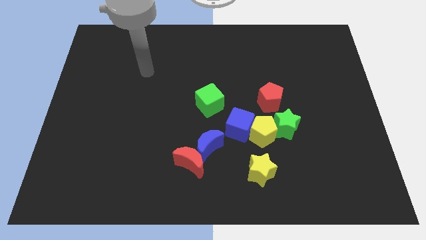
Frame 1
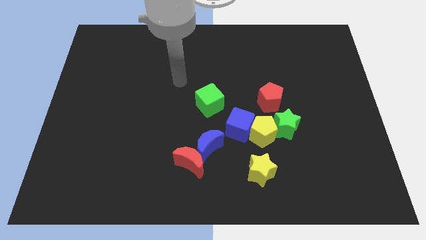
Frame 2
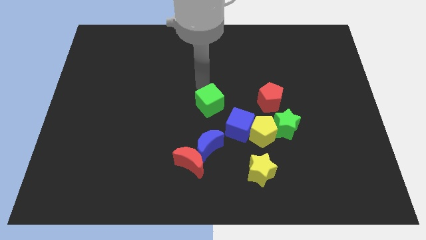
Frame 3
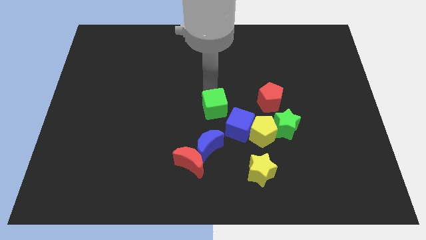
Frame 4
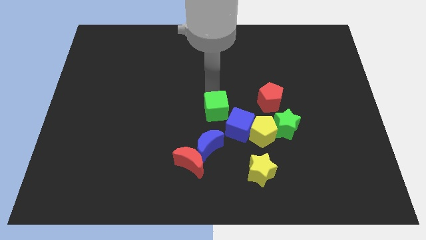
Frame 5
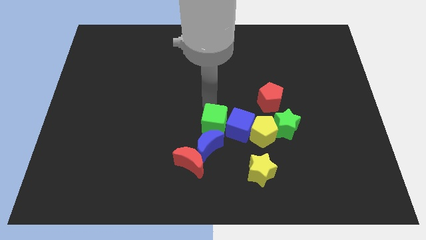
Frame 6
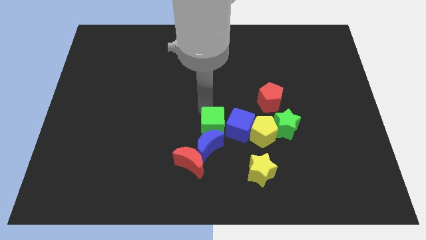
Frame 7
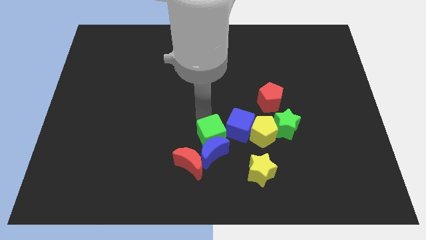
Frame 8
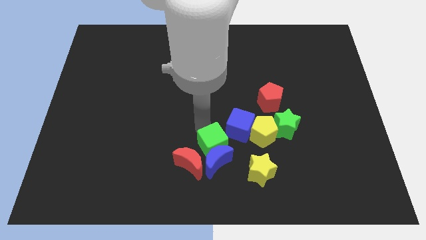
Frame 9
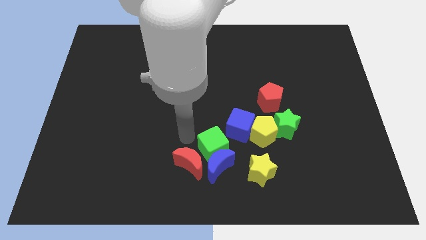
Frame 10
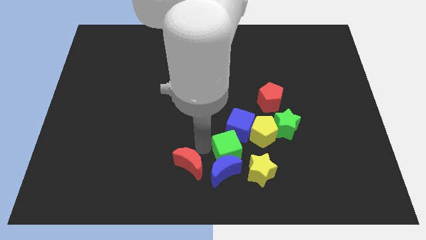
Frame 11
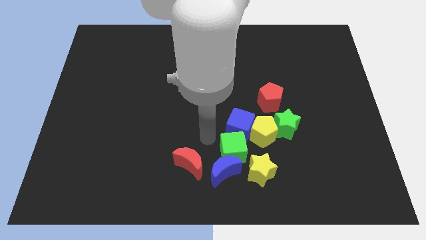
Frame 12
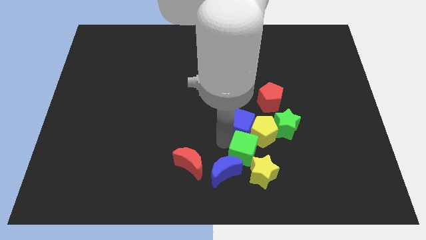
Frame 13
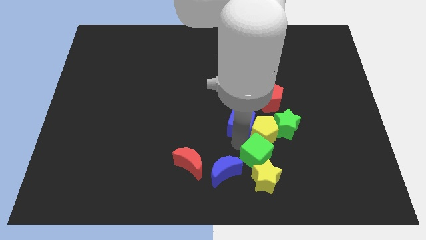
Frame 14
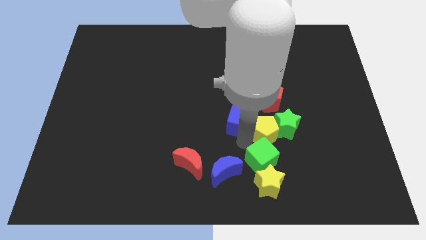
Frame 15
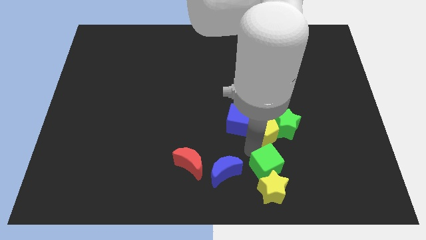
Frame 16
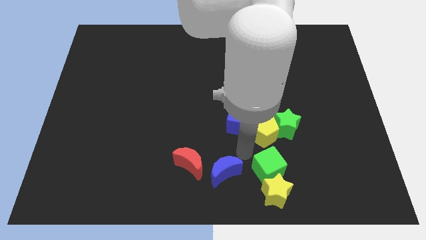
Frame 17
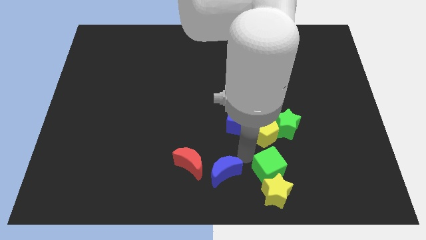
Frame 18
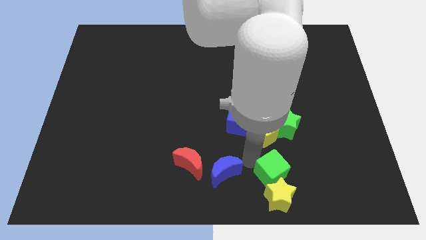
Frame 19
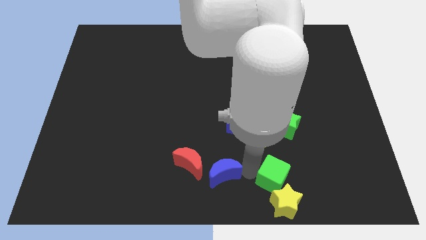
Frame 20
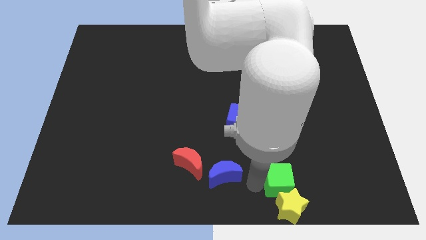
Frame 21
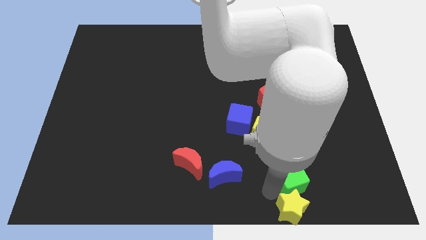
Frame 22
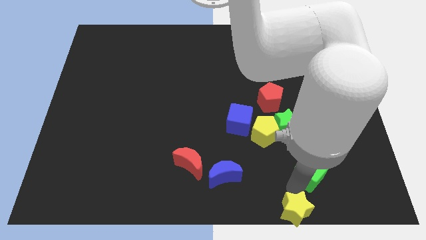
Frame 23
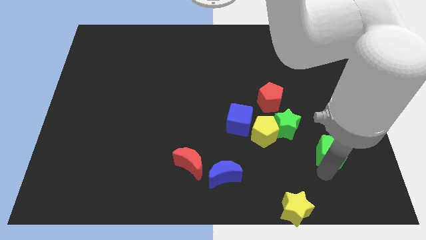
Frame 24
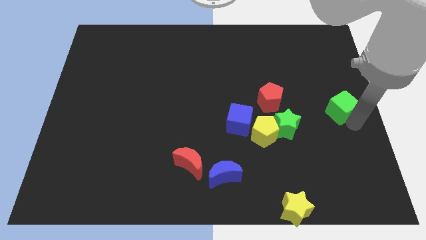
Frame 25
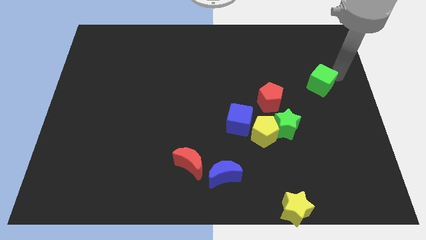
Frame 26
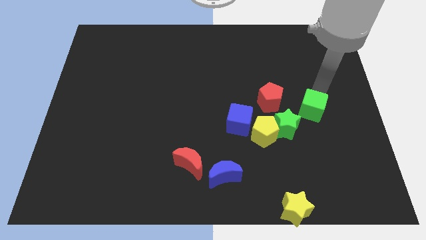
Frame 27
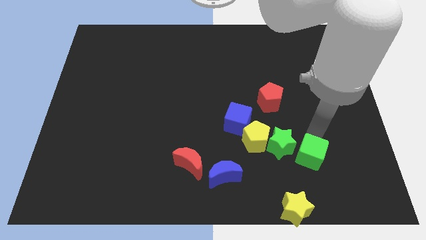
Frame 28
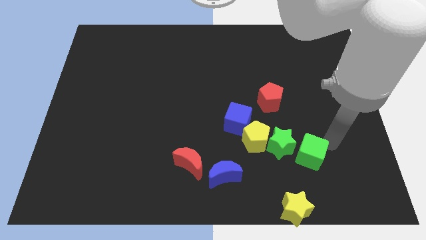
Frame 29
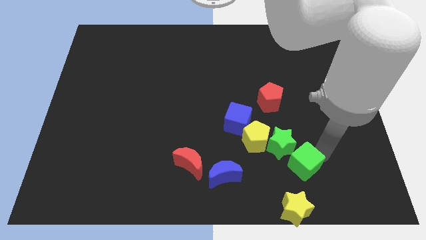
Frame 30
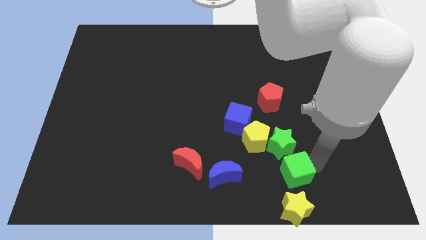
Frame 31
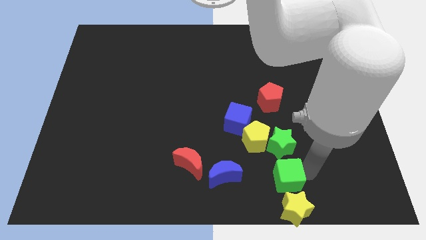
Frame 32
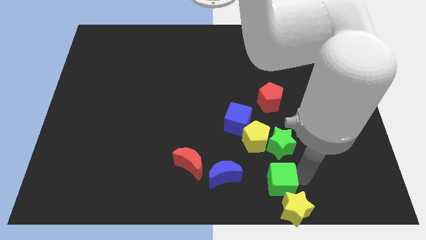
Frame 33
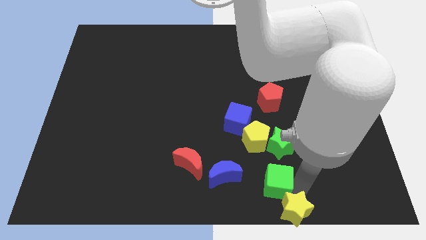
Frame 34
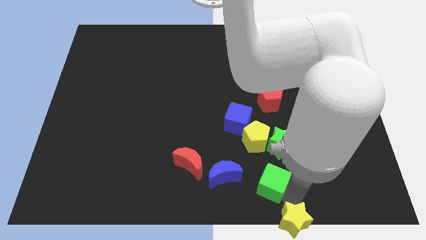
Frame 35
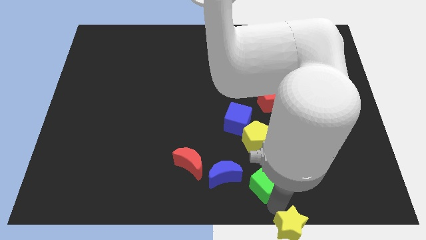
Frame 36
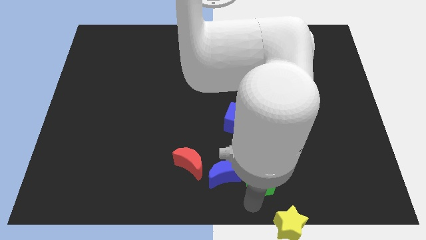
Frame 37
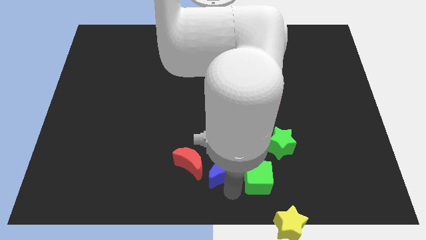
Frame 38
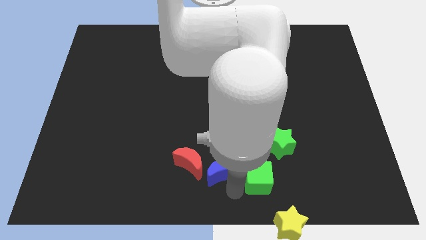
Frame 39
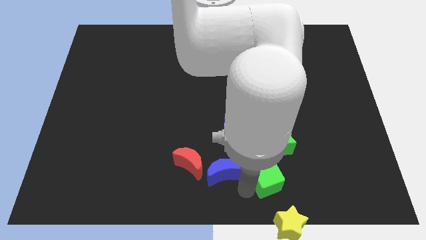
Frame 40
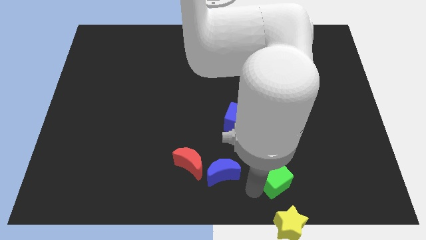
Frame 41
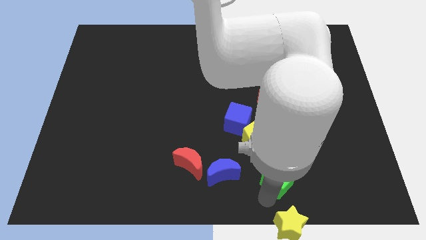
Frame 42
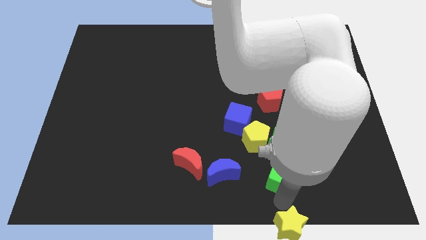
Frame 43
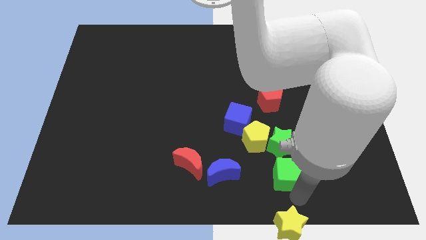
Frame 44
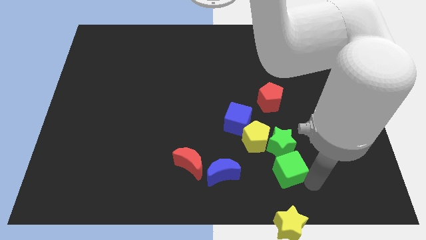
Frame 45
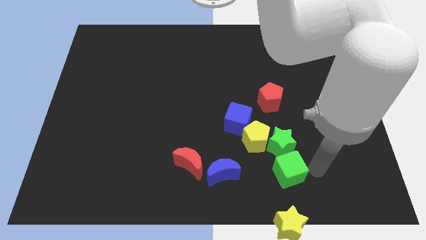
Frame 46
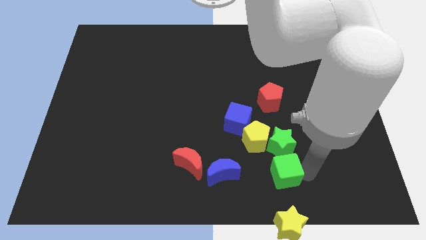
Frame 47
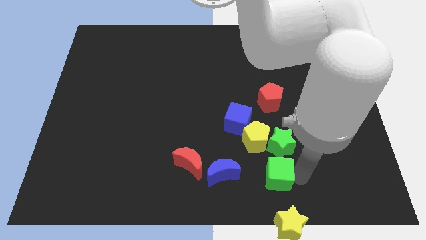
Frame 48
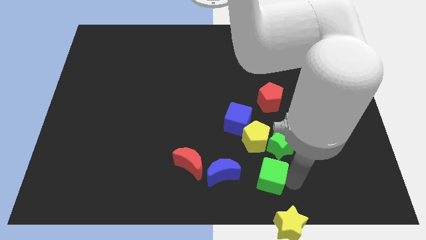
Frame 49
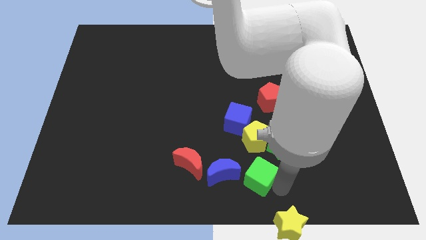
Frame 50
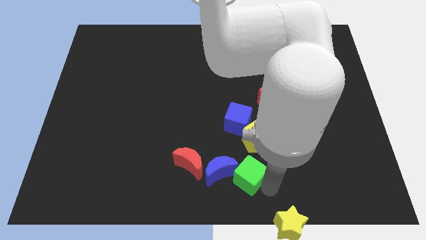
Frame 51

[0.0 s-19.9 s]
move the green cube to the right of the blue moon

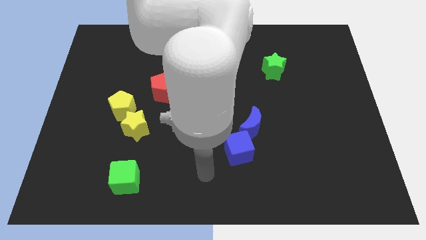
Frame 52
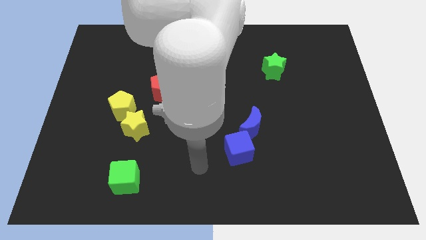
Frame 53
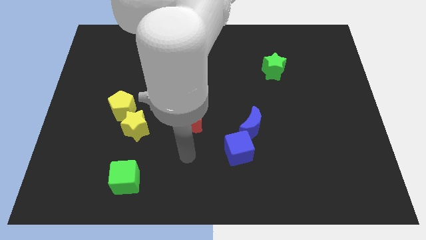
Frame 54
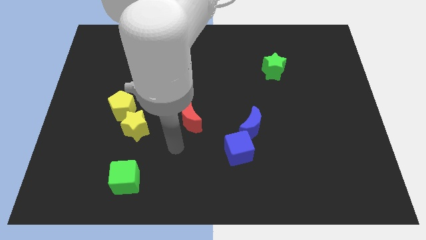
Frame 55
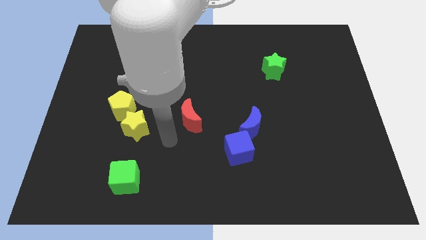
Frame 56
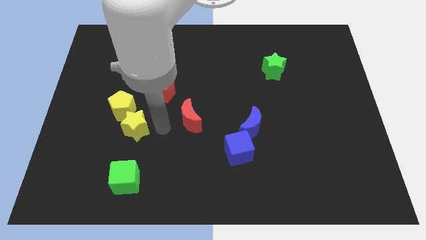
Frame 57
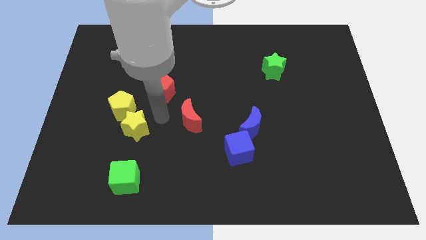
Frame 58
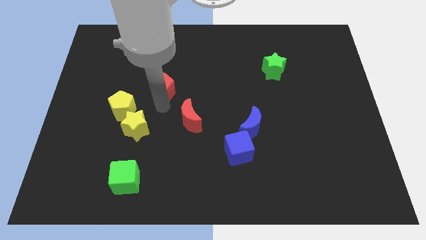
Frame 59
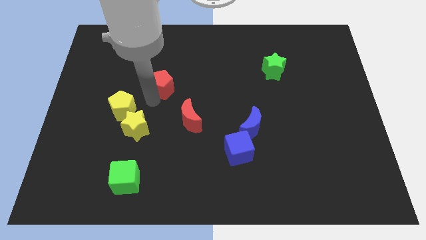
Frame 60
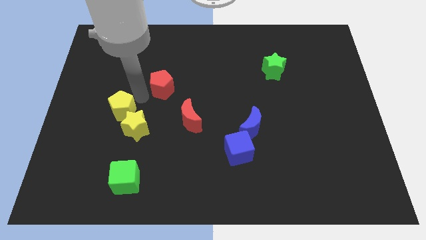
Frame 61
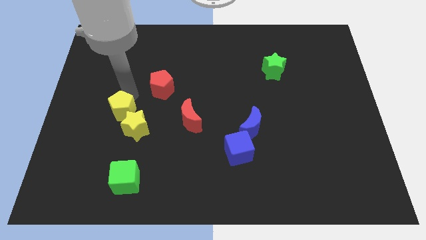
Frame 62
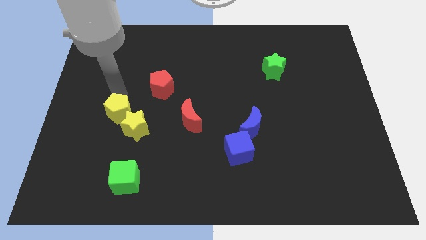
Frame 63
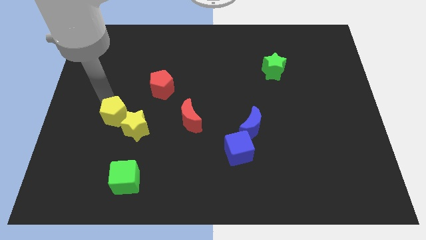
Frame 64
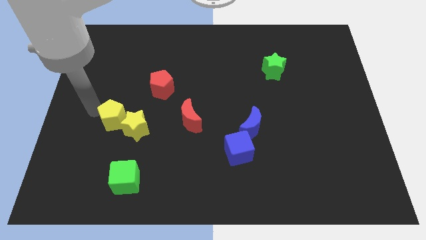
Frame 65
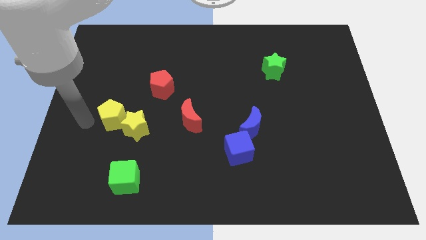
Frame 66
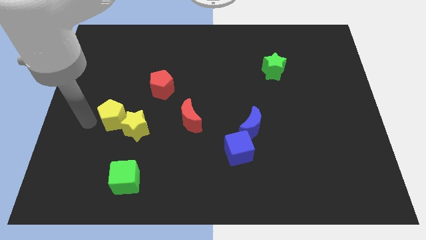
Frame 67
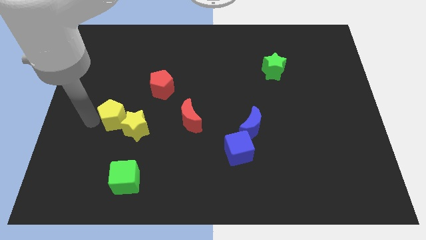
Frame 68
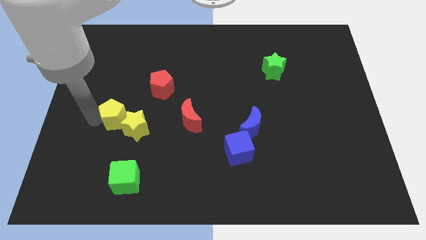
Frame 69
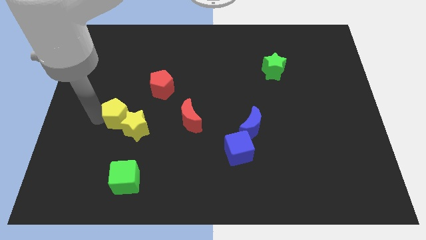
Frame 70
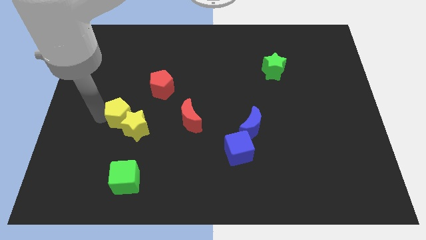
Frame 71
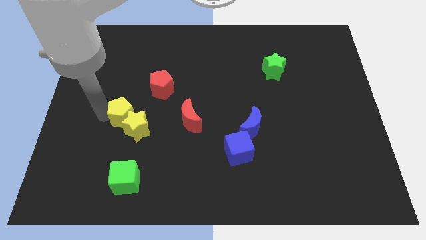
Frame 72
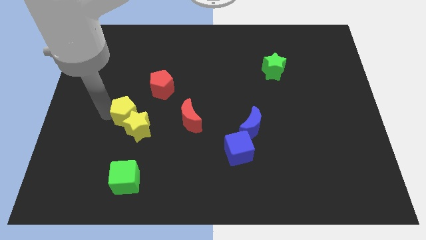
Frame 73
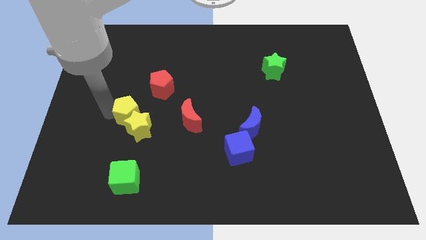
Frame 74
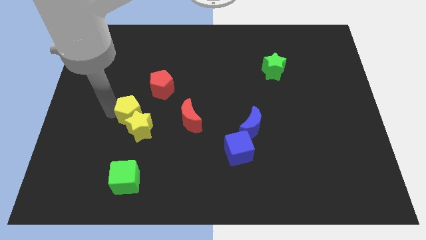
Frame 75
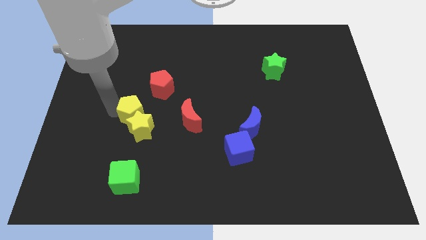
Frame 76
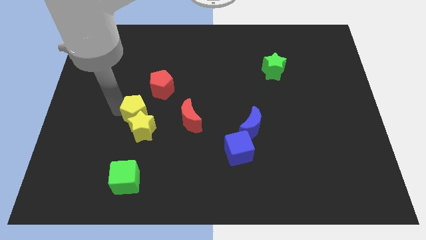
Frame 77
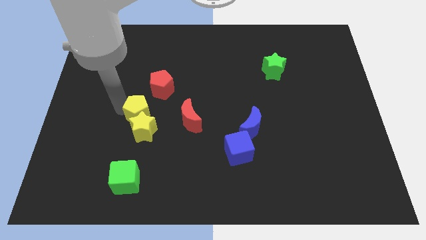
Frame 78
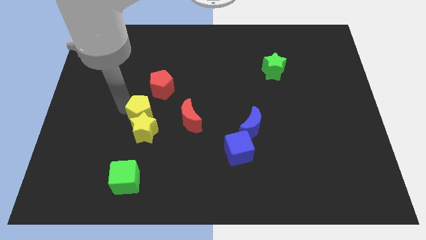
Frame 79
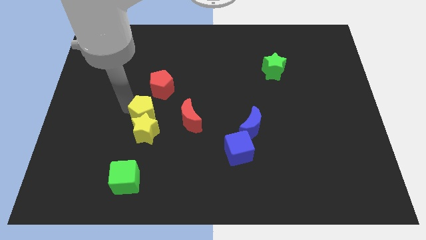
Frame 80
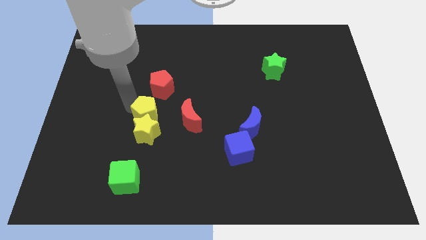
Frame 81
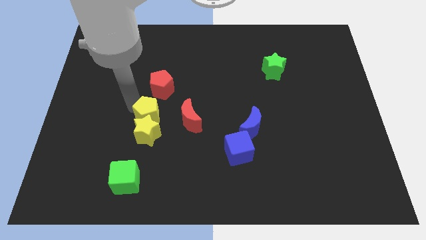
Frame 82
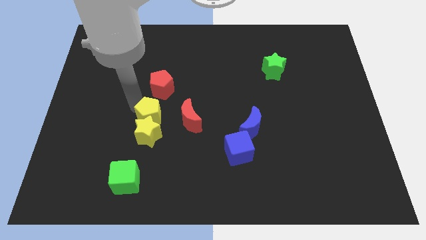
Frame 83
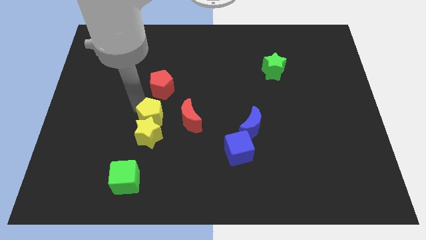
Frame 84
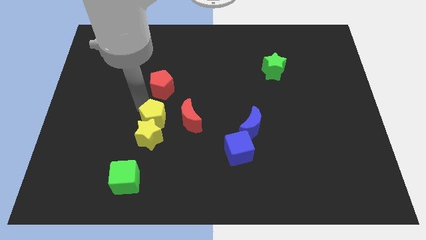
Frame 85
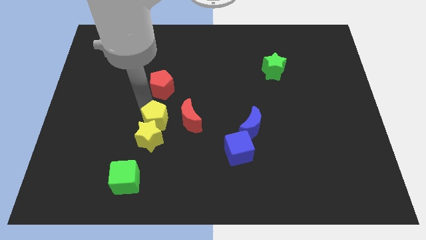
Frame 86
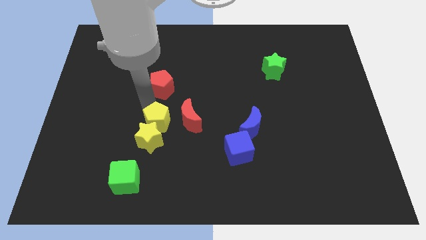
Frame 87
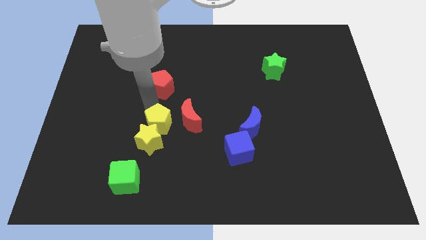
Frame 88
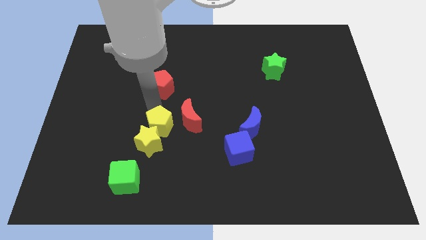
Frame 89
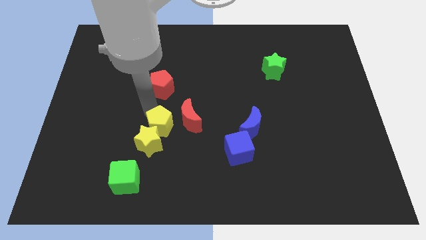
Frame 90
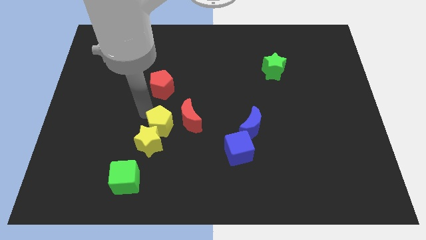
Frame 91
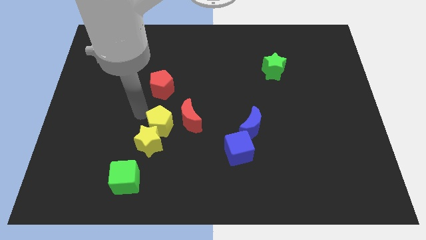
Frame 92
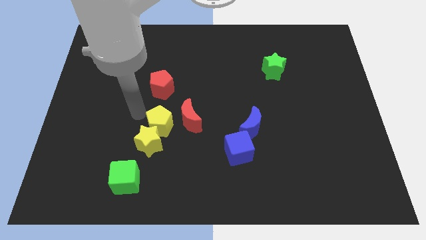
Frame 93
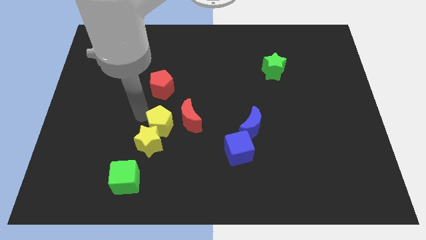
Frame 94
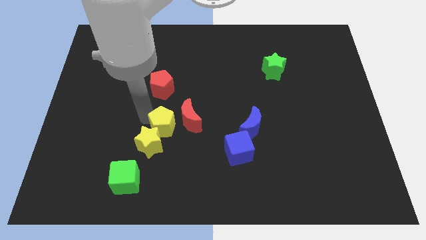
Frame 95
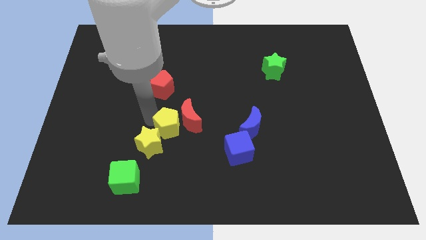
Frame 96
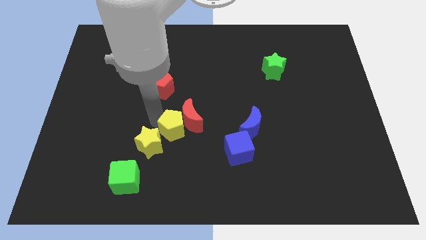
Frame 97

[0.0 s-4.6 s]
move the yellow pentagon to the right side of the yellow star
